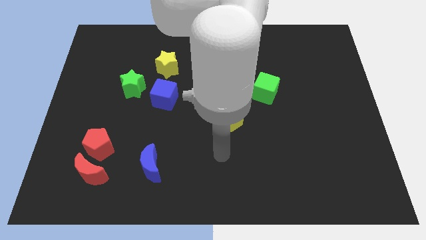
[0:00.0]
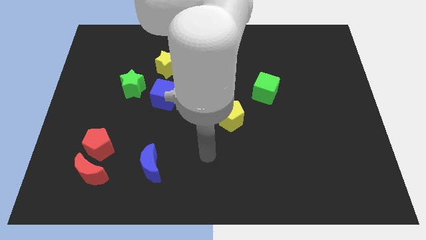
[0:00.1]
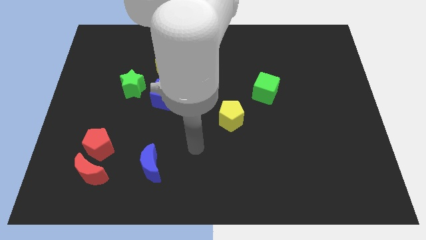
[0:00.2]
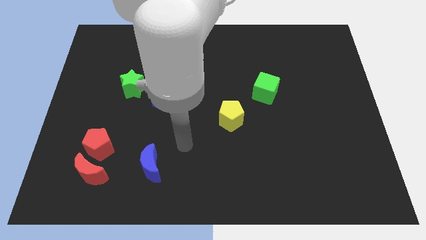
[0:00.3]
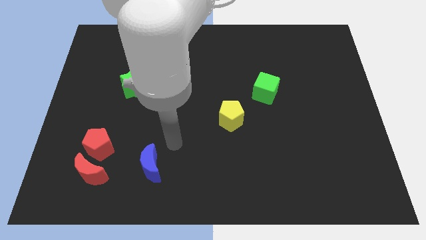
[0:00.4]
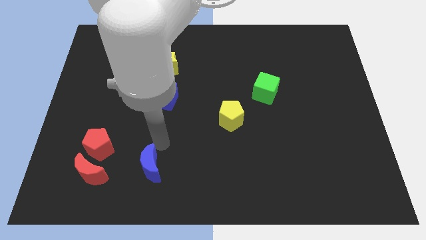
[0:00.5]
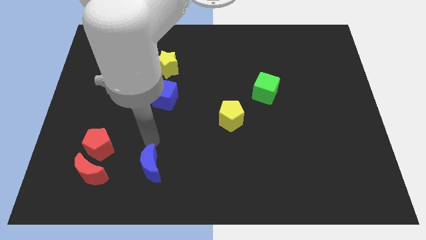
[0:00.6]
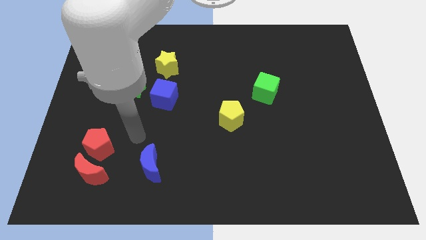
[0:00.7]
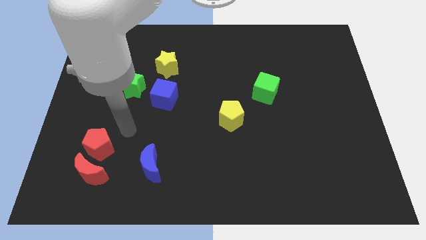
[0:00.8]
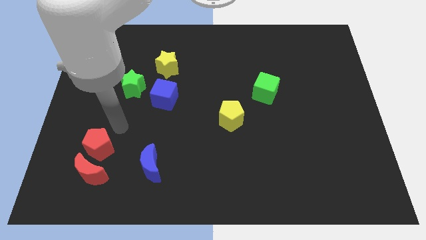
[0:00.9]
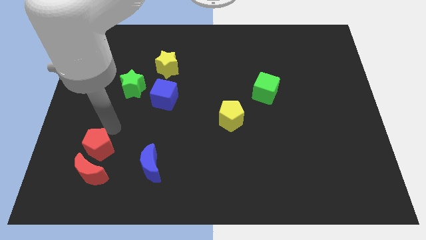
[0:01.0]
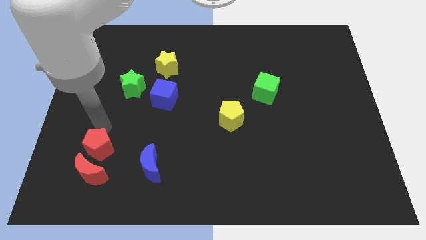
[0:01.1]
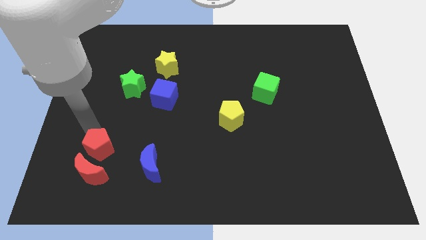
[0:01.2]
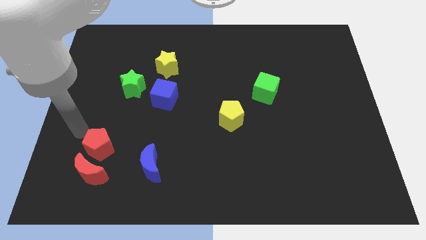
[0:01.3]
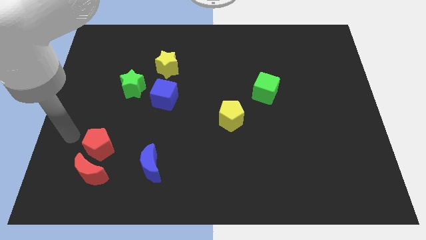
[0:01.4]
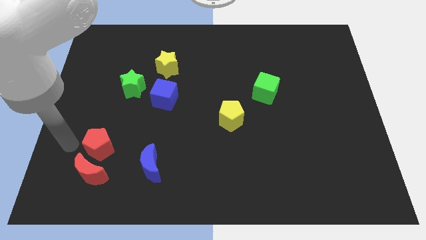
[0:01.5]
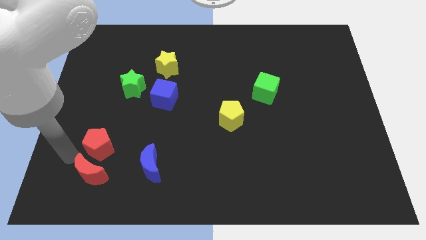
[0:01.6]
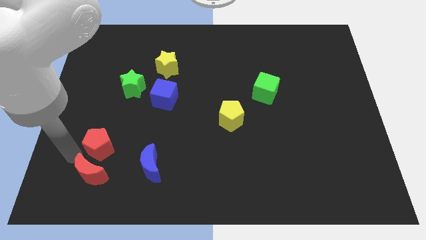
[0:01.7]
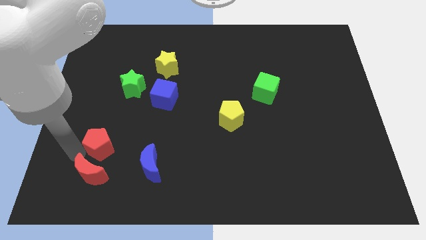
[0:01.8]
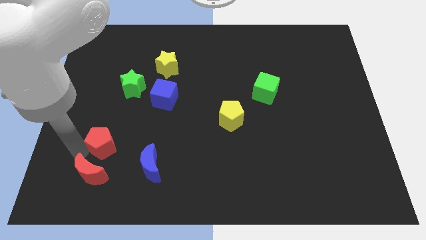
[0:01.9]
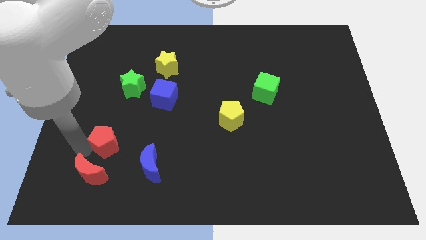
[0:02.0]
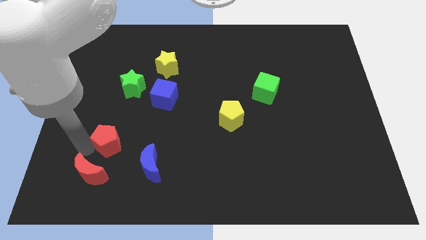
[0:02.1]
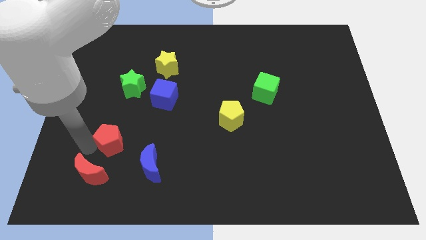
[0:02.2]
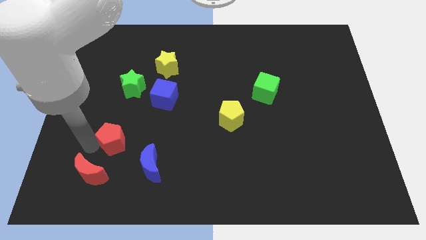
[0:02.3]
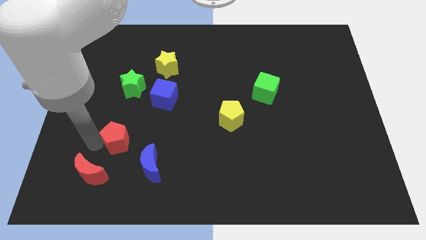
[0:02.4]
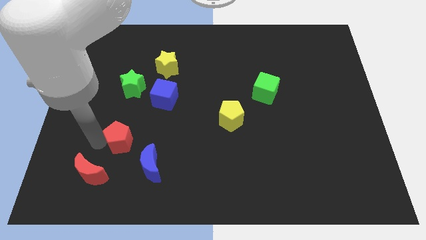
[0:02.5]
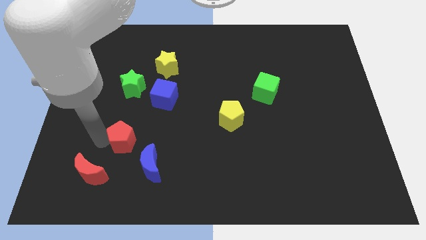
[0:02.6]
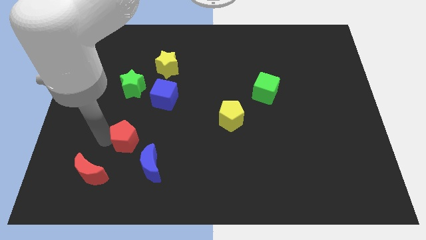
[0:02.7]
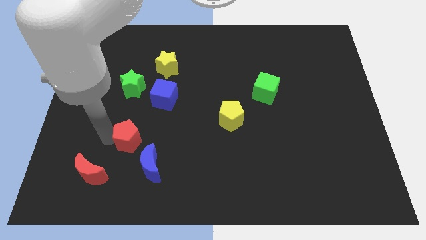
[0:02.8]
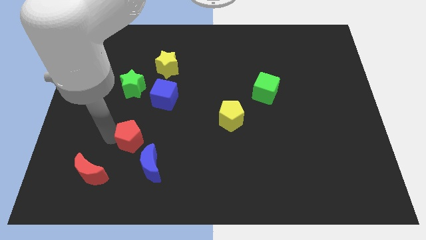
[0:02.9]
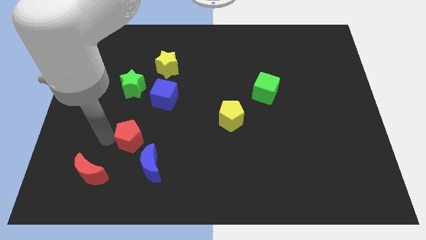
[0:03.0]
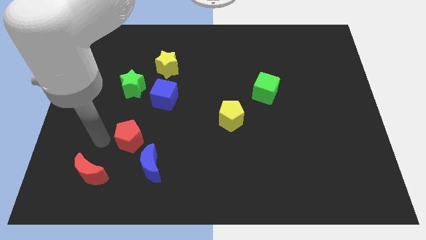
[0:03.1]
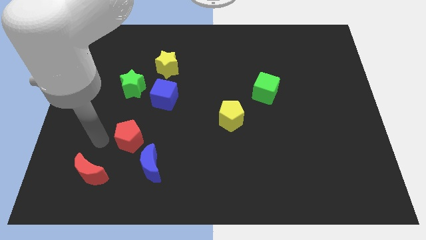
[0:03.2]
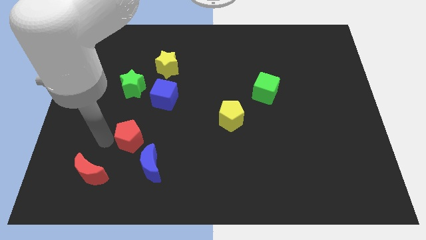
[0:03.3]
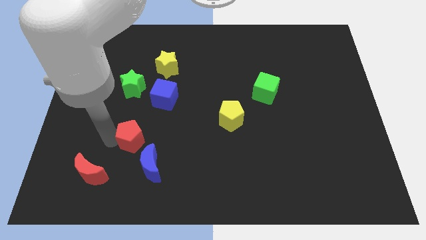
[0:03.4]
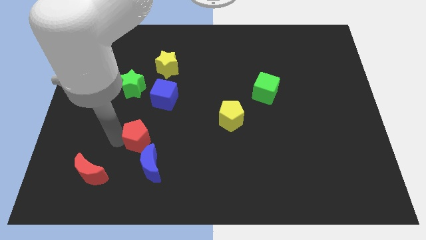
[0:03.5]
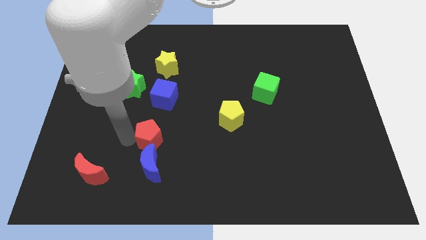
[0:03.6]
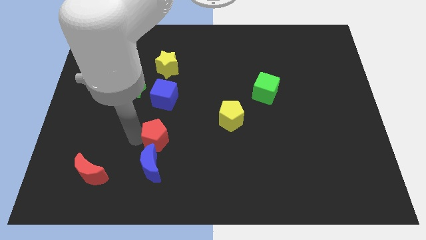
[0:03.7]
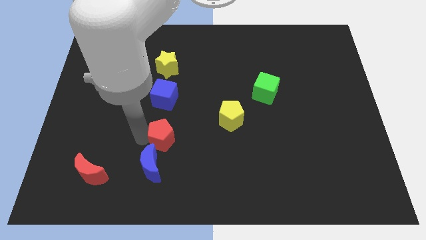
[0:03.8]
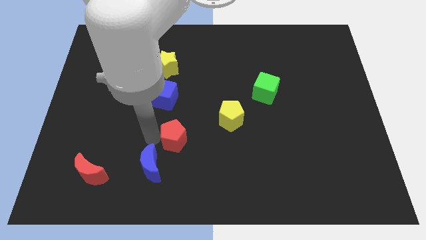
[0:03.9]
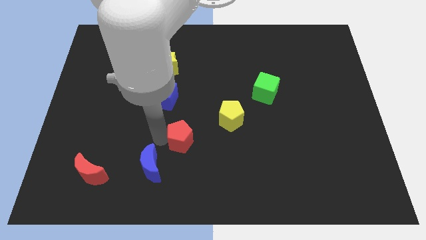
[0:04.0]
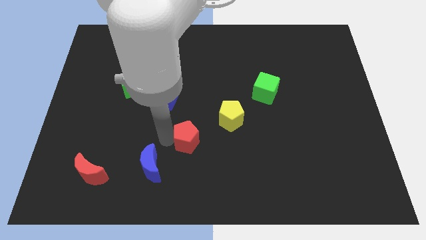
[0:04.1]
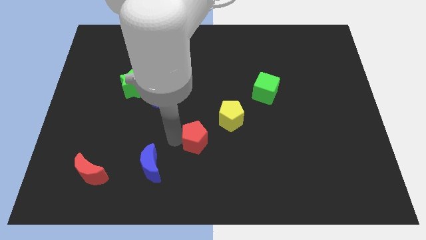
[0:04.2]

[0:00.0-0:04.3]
push the red pentagon right

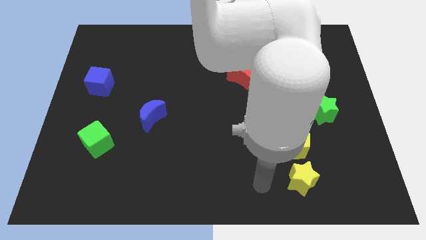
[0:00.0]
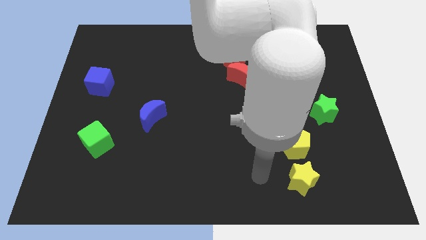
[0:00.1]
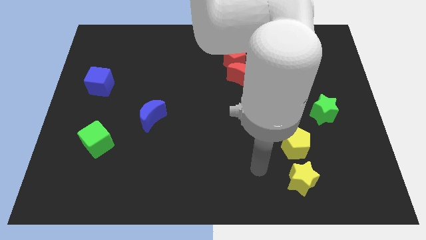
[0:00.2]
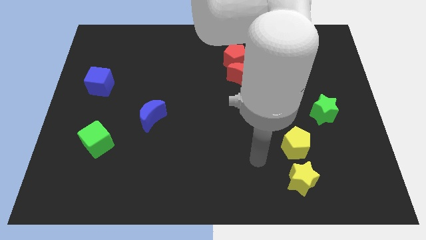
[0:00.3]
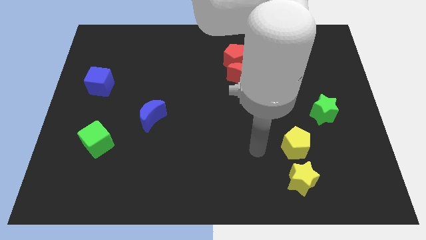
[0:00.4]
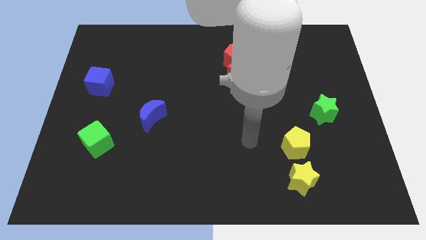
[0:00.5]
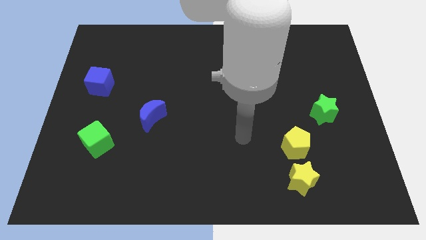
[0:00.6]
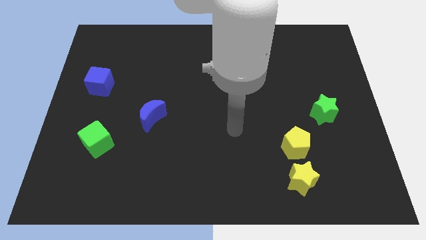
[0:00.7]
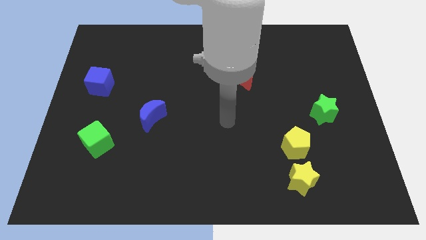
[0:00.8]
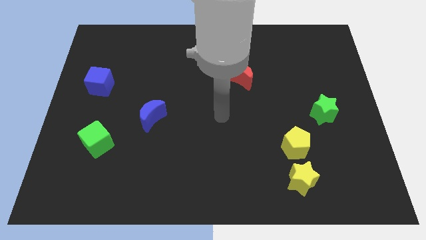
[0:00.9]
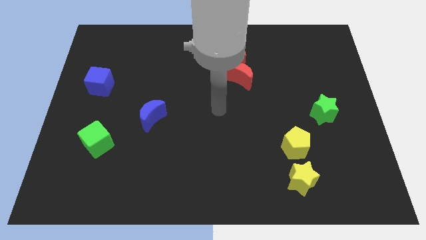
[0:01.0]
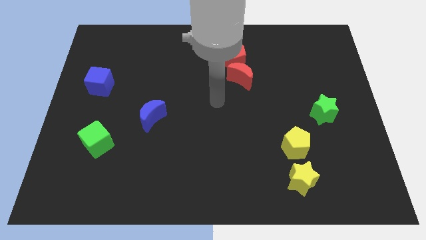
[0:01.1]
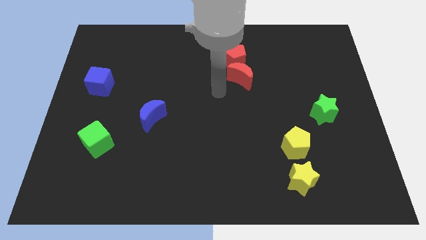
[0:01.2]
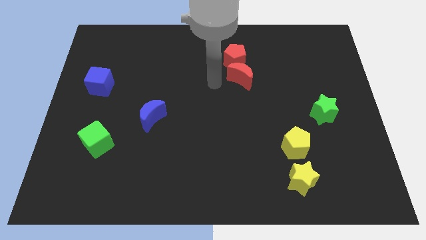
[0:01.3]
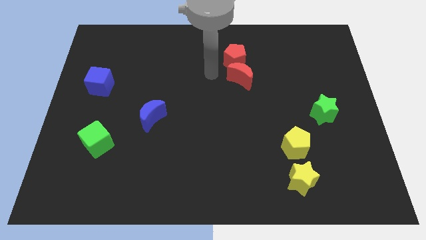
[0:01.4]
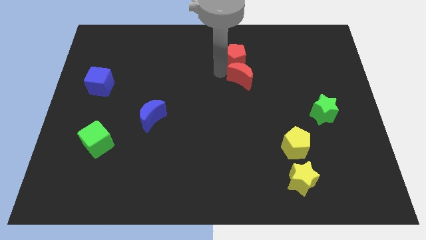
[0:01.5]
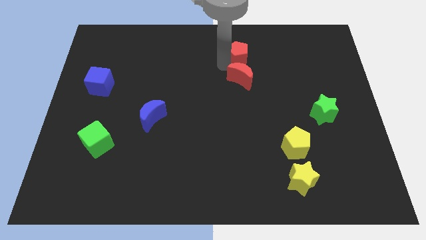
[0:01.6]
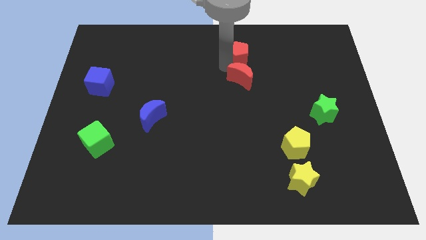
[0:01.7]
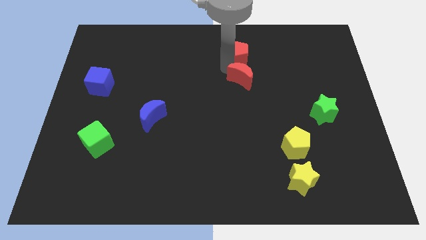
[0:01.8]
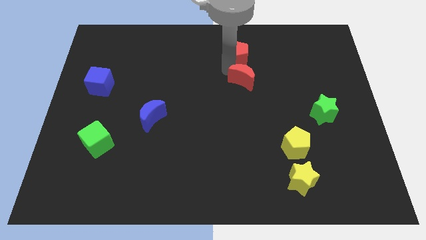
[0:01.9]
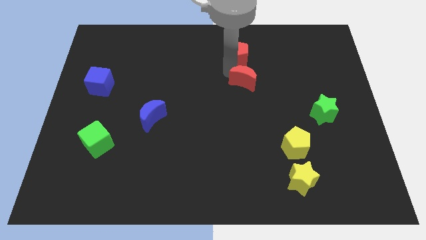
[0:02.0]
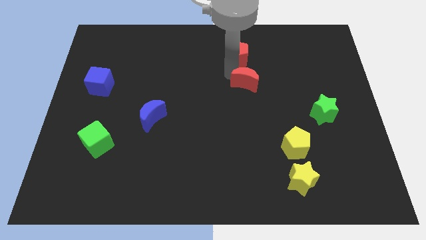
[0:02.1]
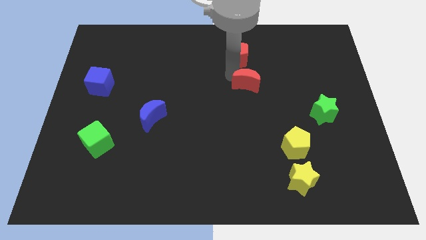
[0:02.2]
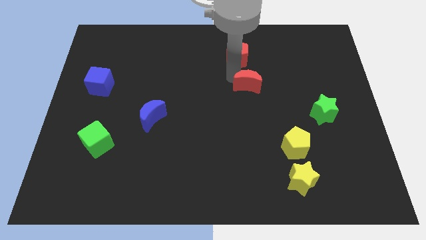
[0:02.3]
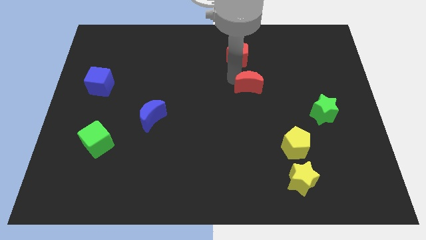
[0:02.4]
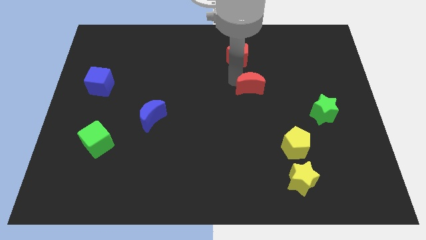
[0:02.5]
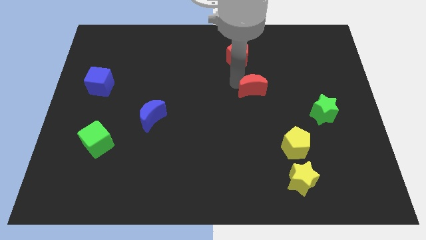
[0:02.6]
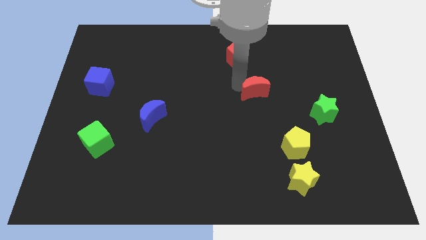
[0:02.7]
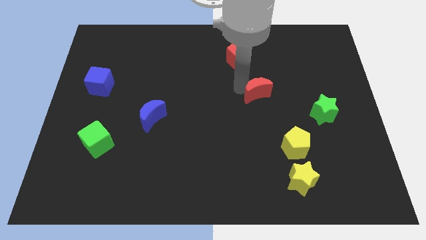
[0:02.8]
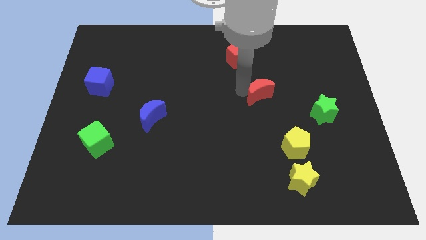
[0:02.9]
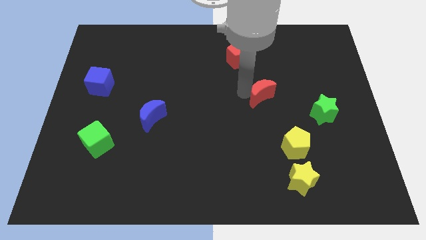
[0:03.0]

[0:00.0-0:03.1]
push the red moon diagonally down and right a little

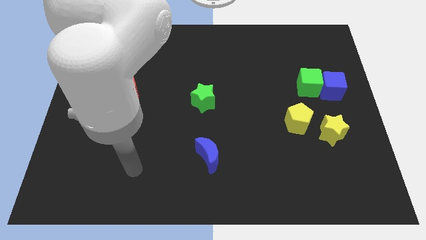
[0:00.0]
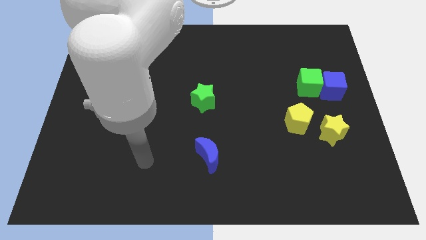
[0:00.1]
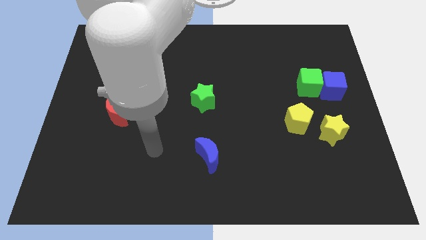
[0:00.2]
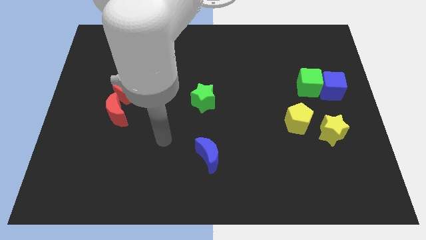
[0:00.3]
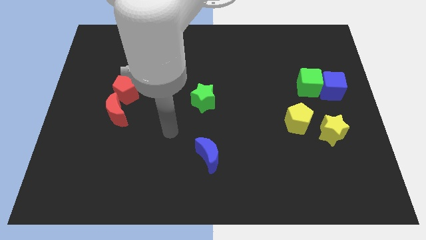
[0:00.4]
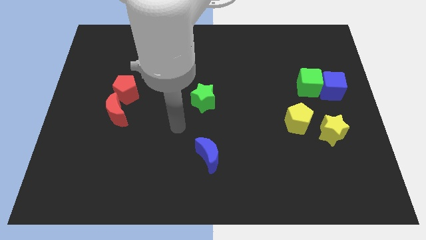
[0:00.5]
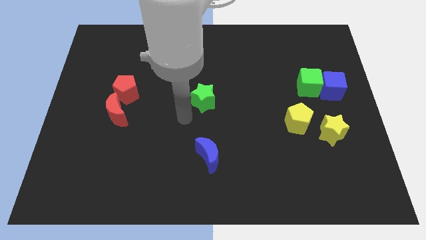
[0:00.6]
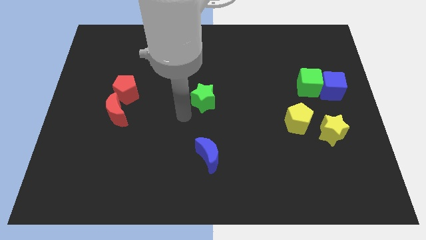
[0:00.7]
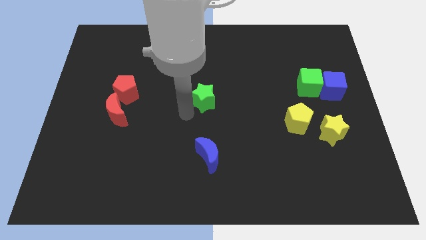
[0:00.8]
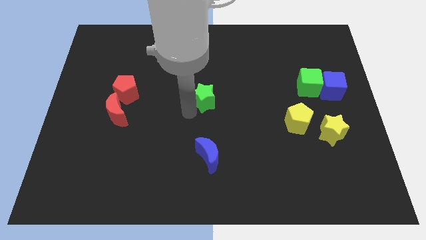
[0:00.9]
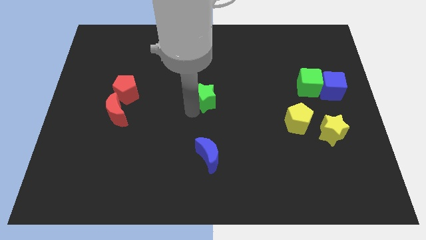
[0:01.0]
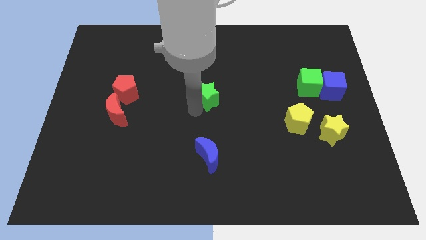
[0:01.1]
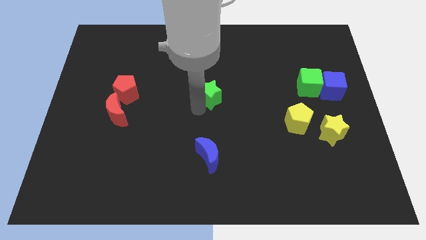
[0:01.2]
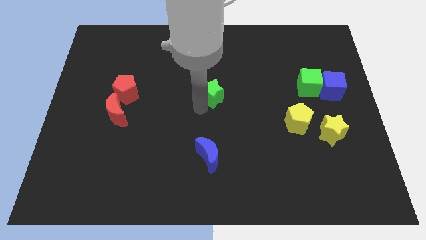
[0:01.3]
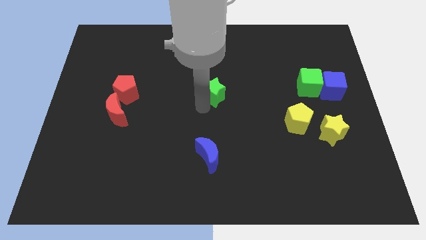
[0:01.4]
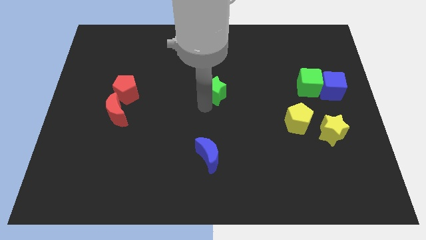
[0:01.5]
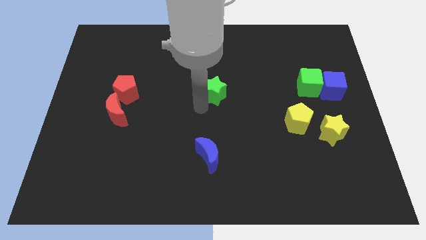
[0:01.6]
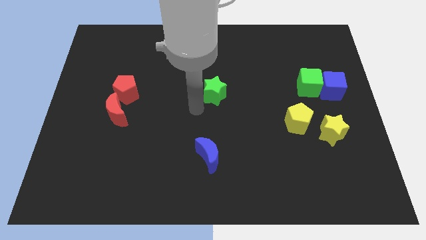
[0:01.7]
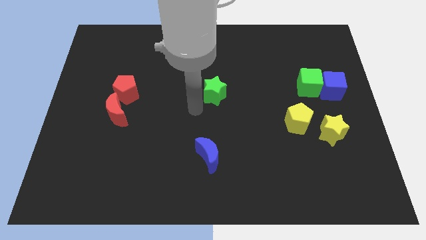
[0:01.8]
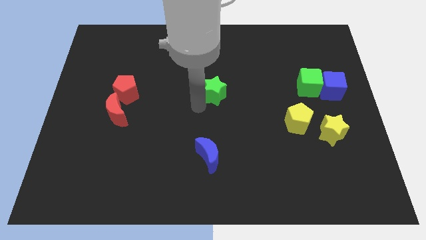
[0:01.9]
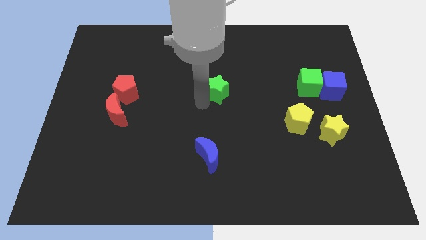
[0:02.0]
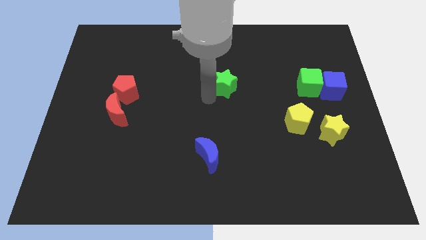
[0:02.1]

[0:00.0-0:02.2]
push the green star a little bit upwards and right diagonally
